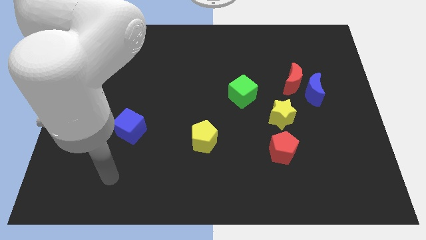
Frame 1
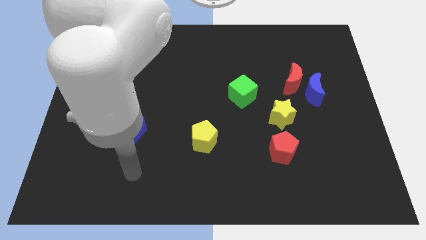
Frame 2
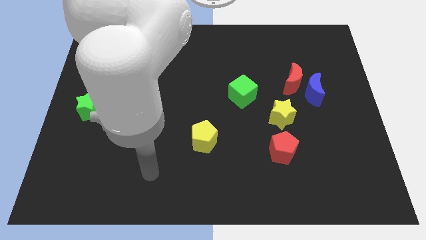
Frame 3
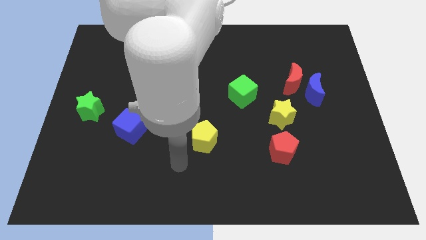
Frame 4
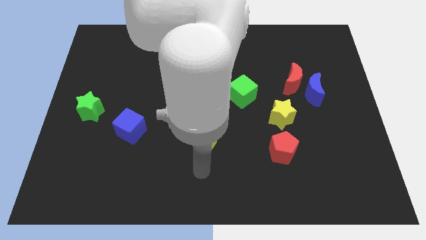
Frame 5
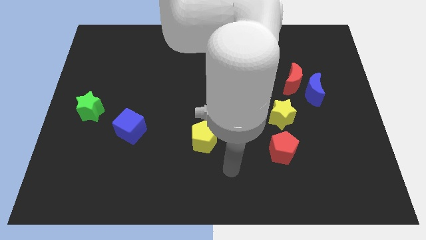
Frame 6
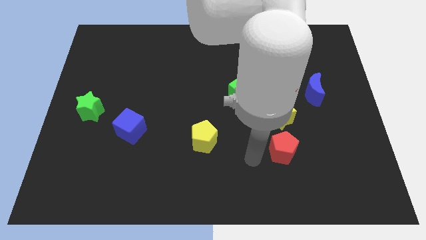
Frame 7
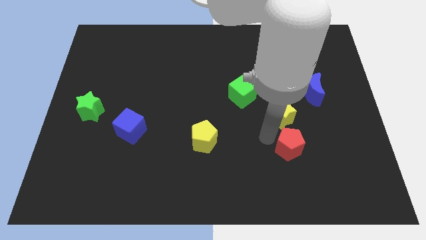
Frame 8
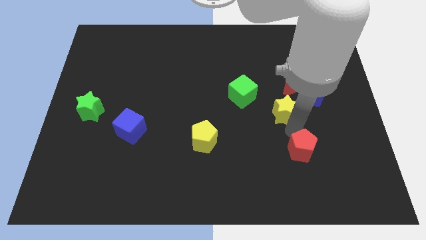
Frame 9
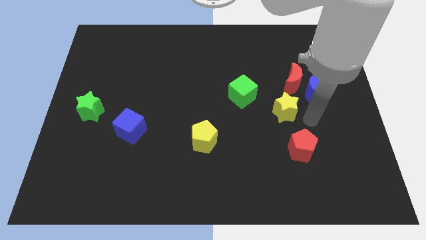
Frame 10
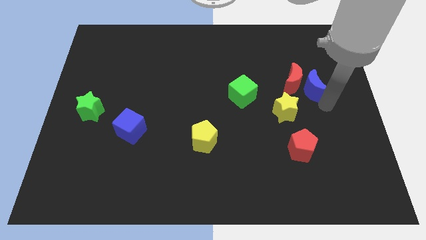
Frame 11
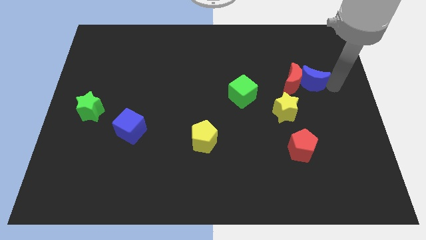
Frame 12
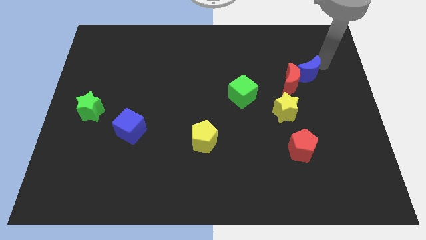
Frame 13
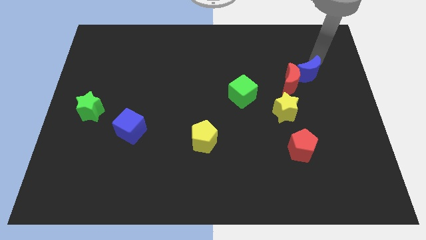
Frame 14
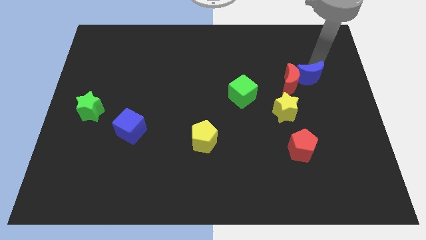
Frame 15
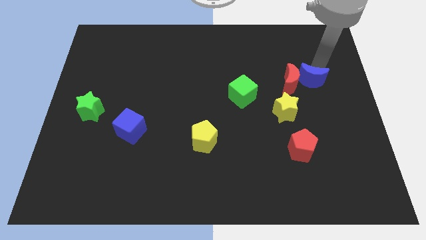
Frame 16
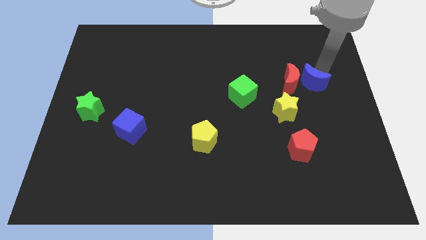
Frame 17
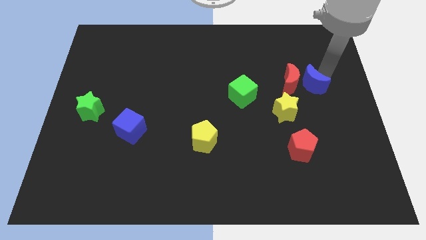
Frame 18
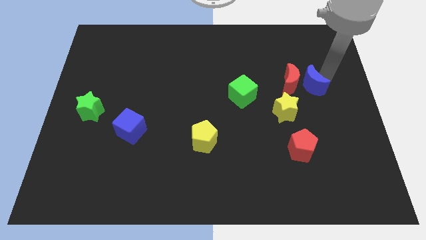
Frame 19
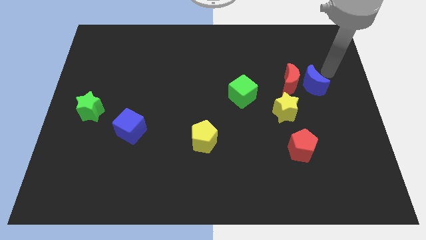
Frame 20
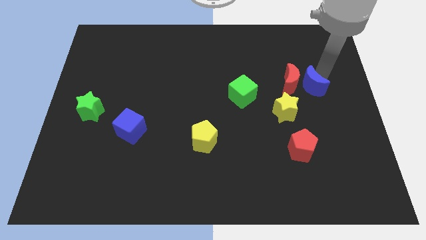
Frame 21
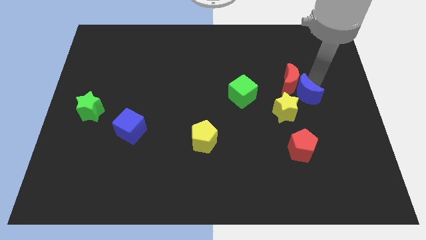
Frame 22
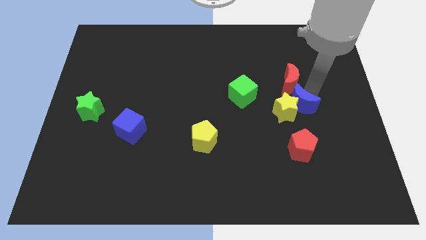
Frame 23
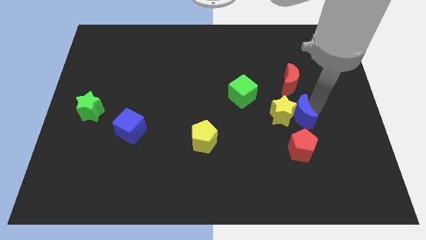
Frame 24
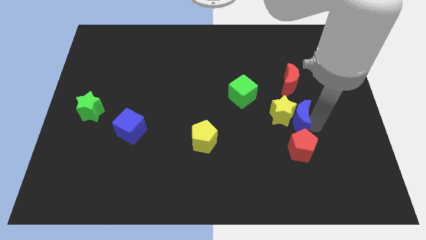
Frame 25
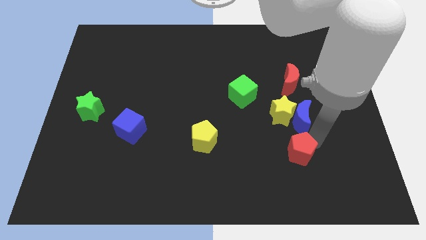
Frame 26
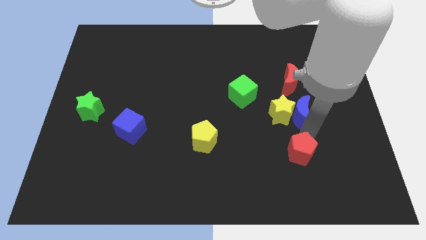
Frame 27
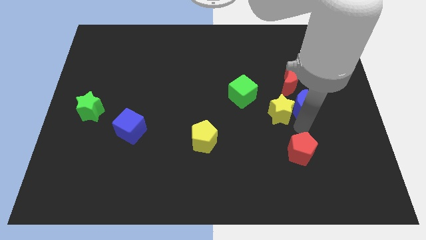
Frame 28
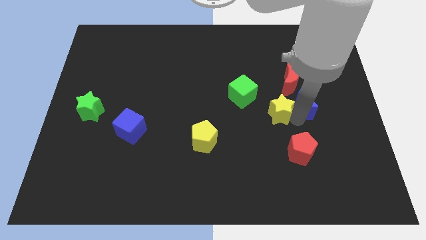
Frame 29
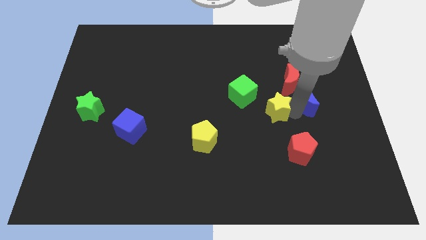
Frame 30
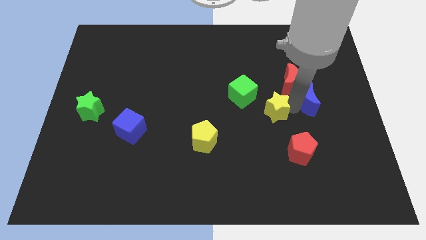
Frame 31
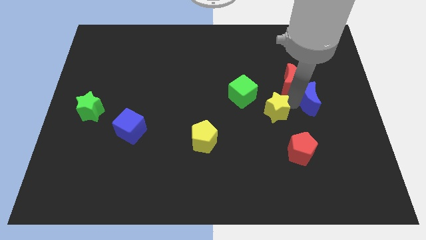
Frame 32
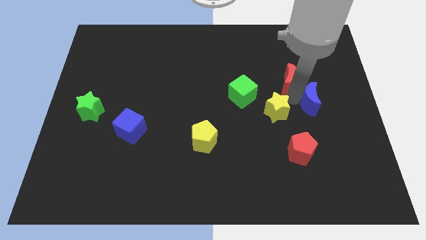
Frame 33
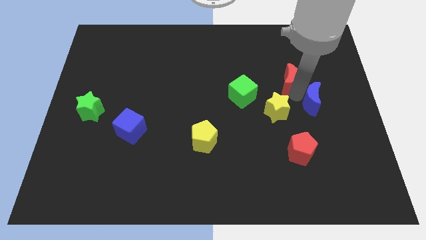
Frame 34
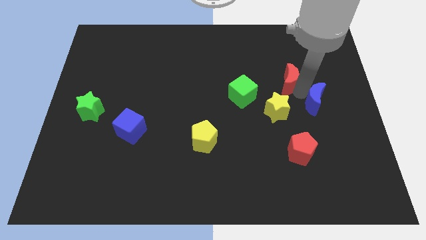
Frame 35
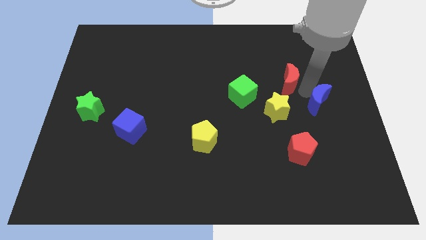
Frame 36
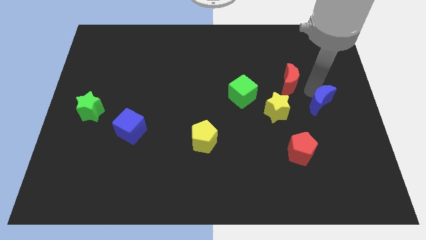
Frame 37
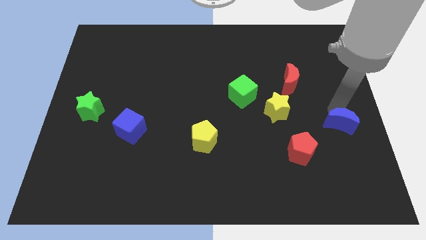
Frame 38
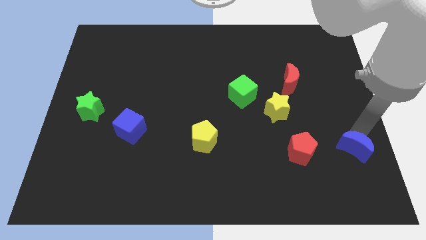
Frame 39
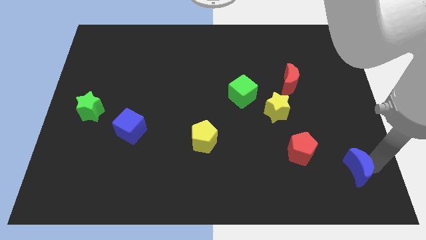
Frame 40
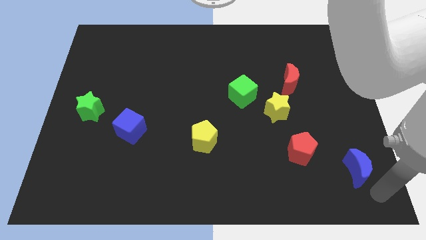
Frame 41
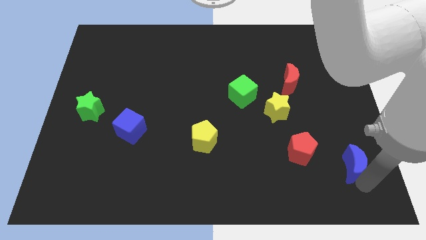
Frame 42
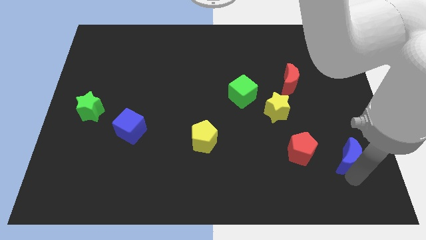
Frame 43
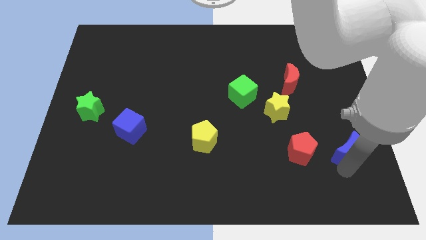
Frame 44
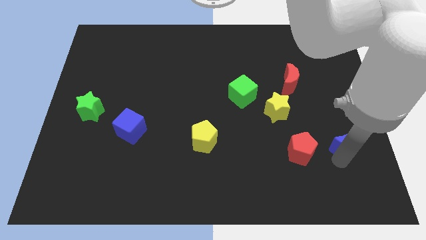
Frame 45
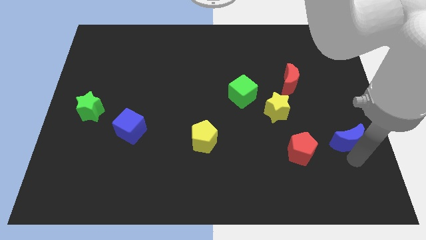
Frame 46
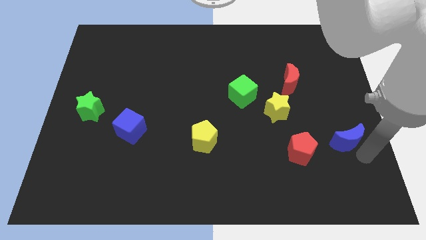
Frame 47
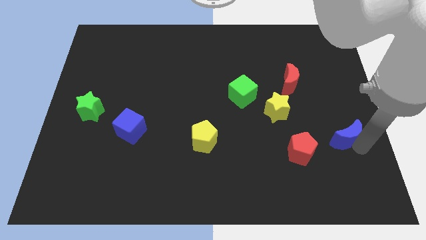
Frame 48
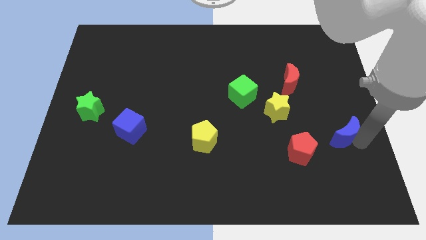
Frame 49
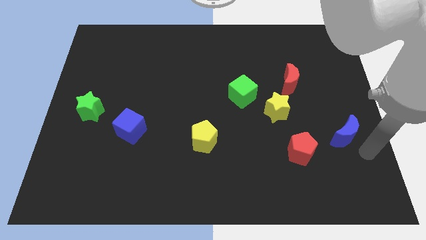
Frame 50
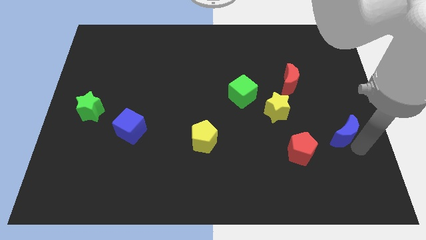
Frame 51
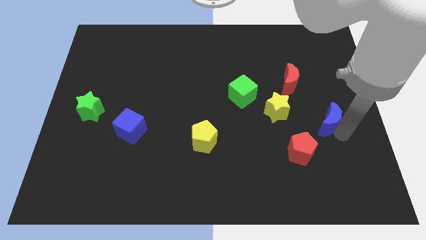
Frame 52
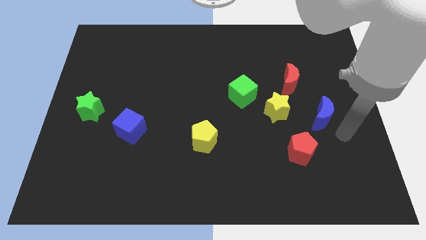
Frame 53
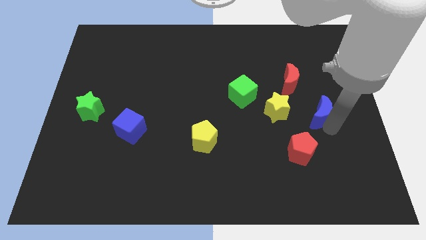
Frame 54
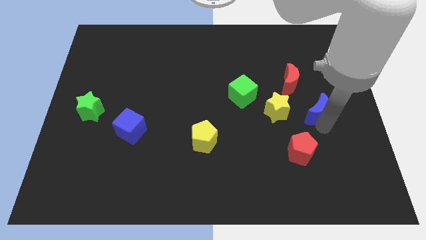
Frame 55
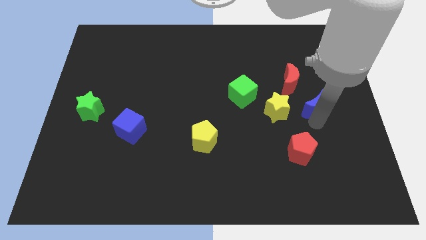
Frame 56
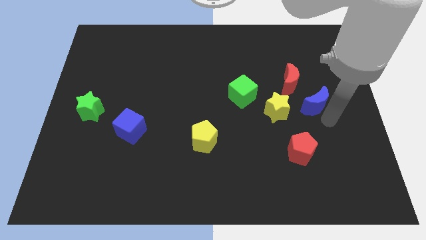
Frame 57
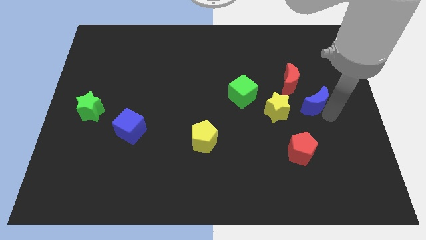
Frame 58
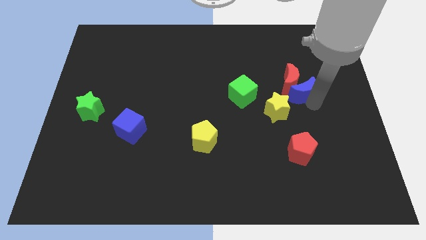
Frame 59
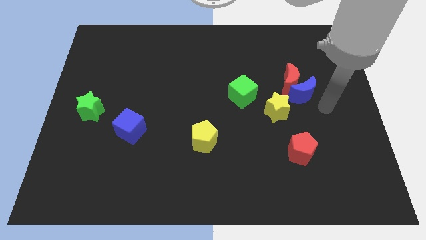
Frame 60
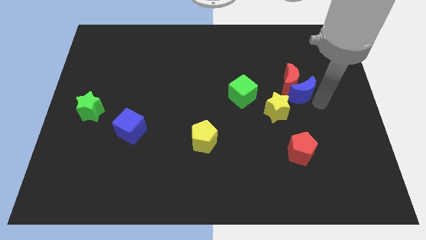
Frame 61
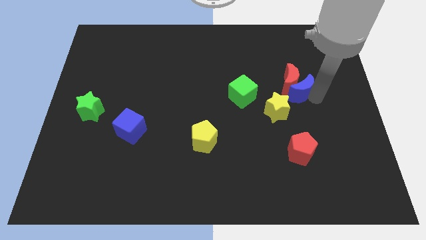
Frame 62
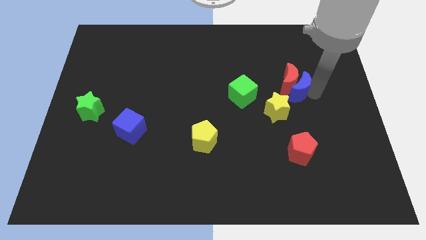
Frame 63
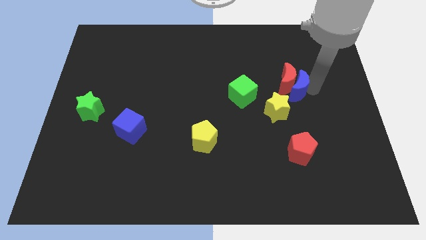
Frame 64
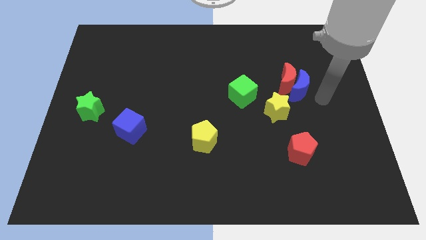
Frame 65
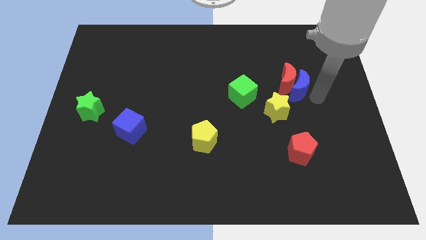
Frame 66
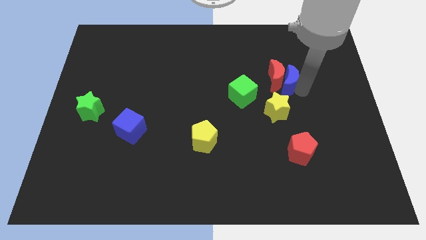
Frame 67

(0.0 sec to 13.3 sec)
push the blue moon to the top of the yellow star
